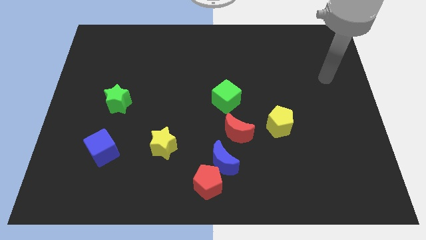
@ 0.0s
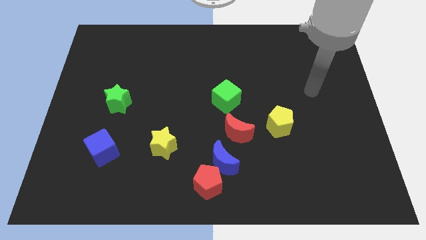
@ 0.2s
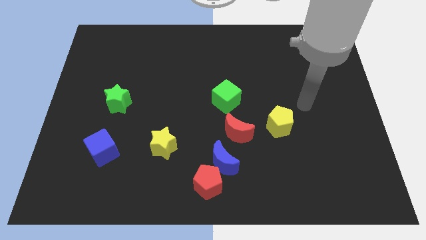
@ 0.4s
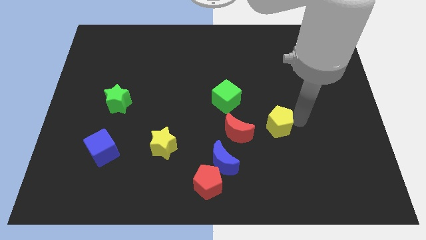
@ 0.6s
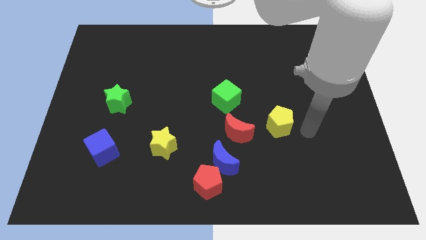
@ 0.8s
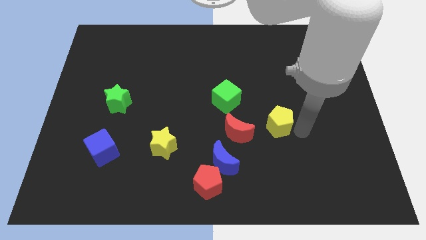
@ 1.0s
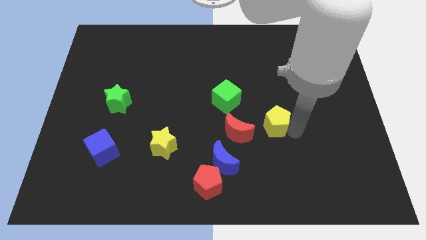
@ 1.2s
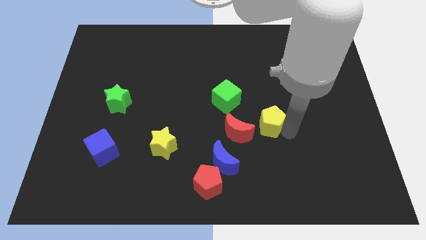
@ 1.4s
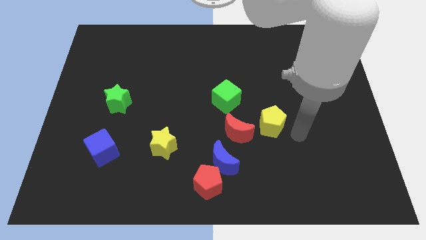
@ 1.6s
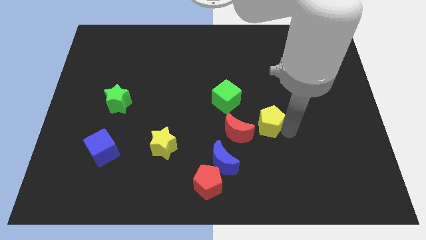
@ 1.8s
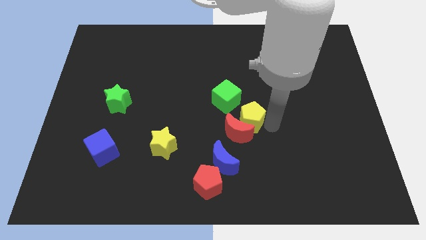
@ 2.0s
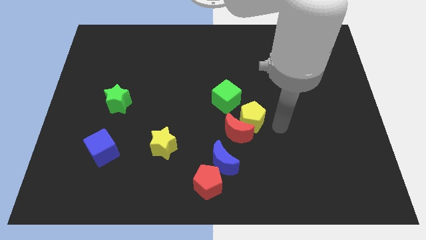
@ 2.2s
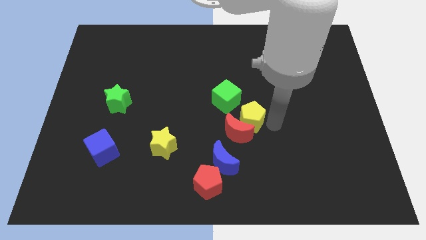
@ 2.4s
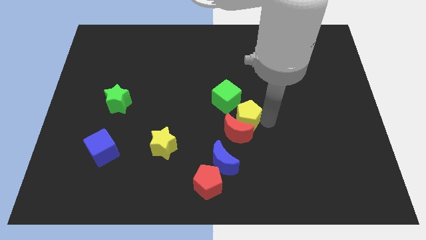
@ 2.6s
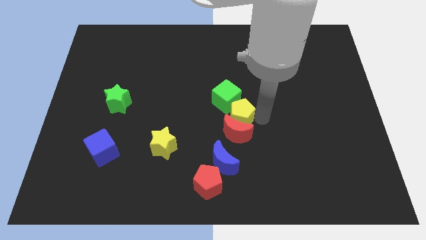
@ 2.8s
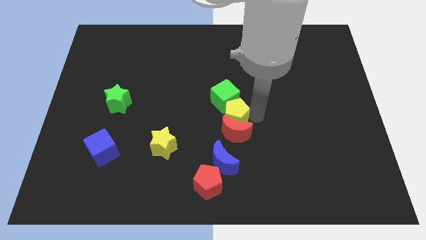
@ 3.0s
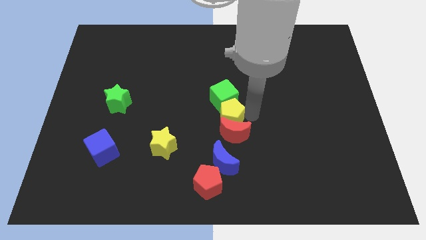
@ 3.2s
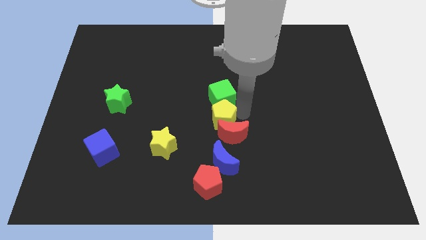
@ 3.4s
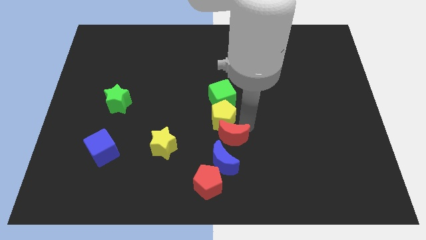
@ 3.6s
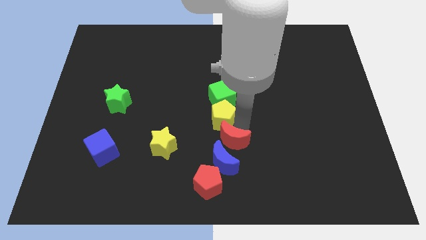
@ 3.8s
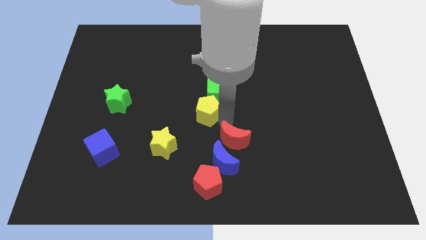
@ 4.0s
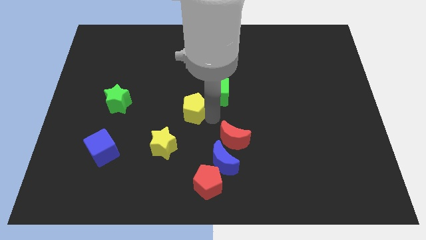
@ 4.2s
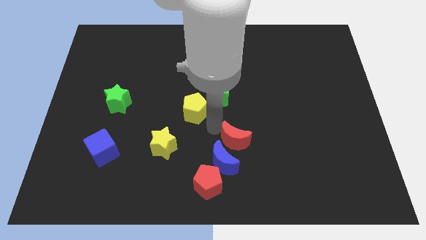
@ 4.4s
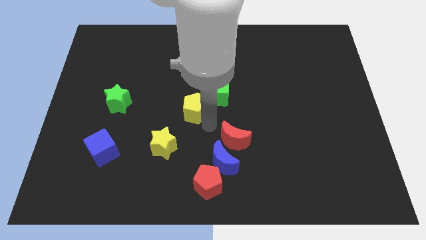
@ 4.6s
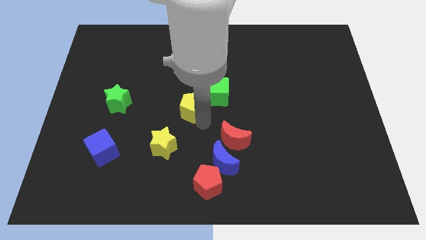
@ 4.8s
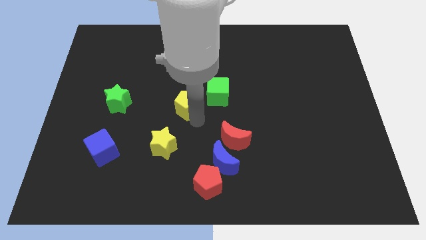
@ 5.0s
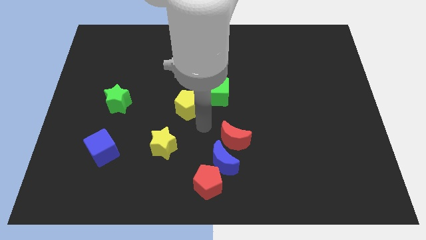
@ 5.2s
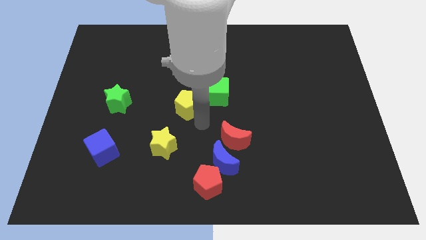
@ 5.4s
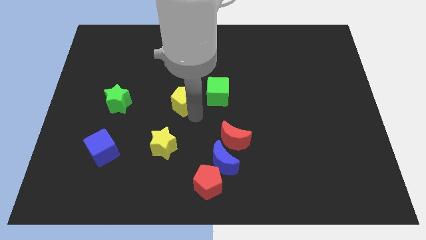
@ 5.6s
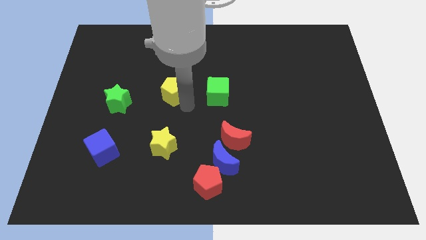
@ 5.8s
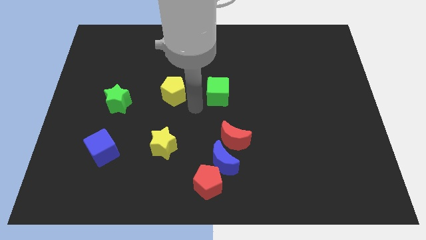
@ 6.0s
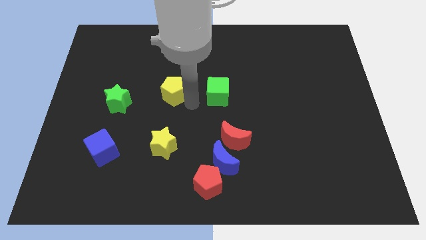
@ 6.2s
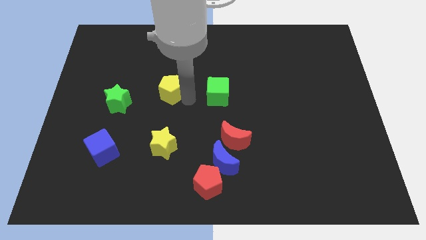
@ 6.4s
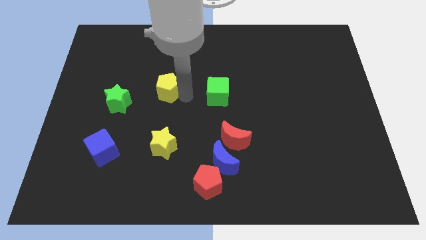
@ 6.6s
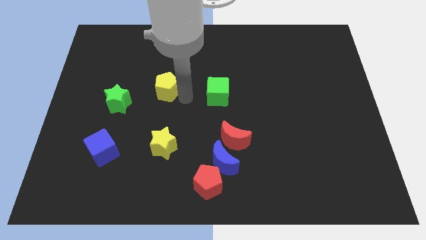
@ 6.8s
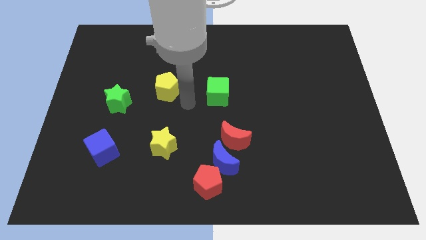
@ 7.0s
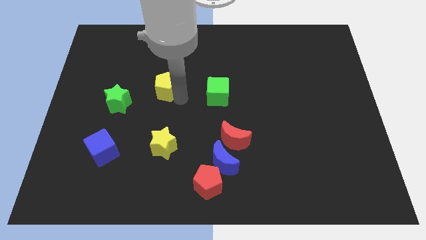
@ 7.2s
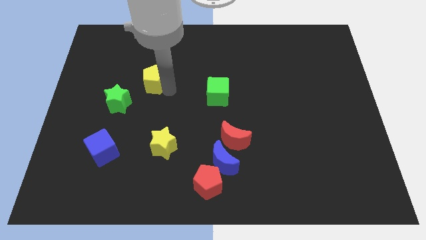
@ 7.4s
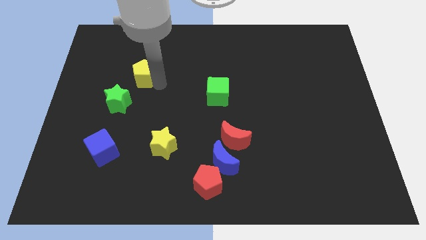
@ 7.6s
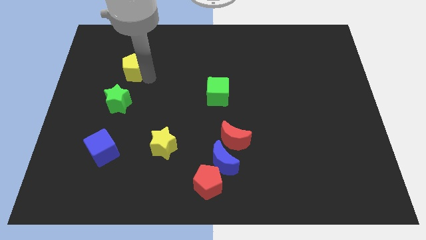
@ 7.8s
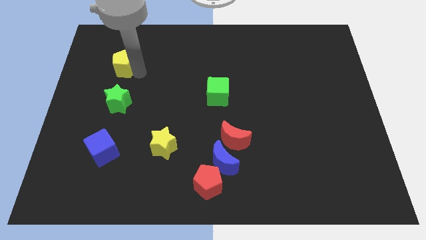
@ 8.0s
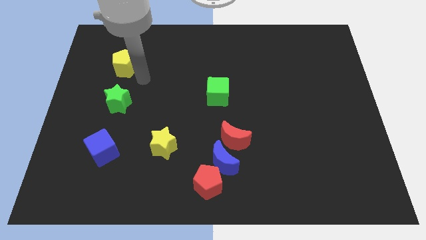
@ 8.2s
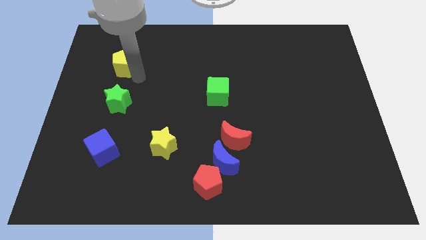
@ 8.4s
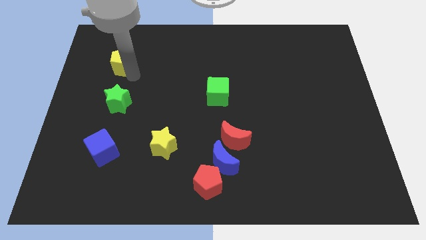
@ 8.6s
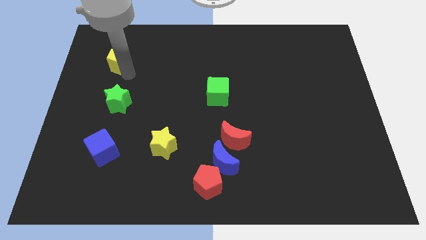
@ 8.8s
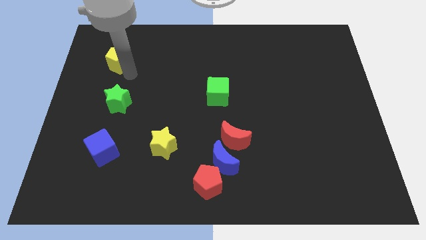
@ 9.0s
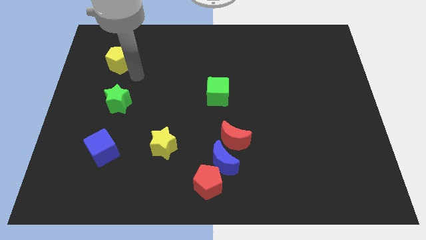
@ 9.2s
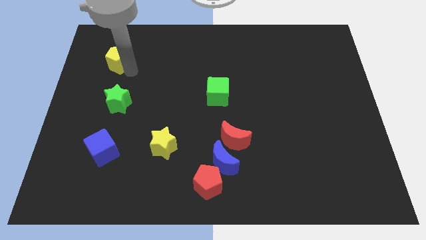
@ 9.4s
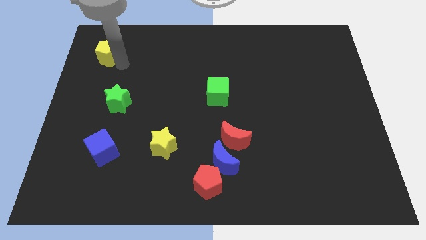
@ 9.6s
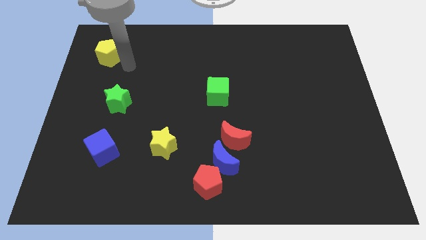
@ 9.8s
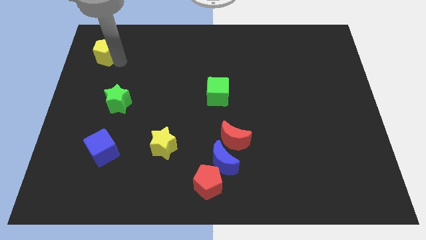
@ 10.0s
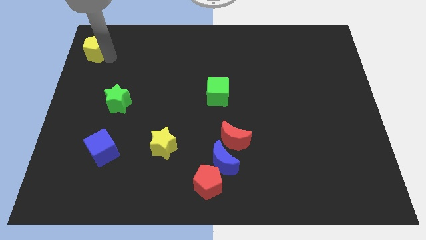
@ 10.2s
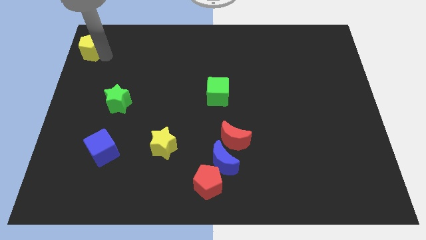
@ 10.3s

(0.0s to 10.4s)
slide the yellow pentagon to the top left

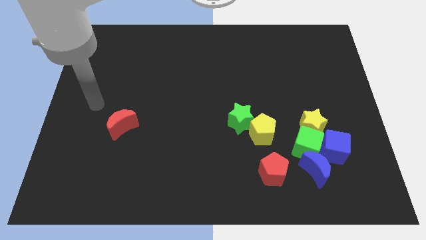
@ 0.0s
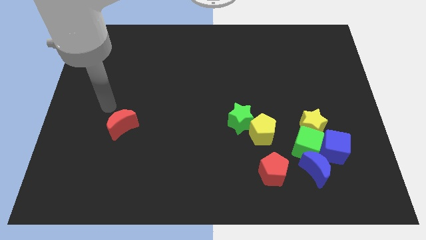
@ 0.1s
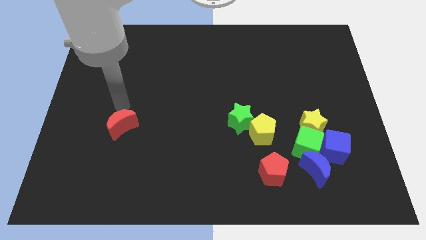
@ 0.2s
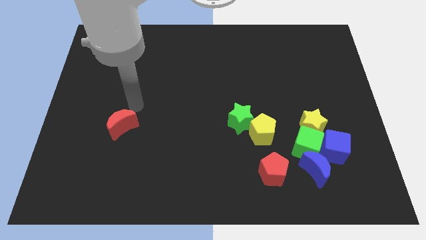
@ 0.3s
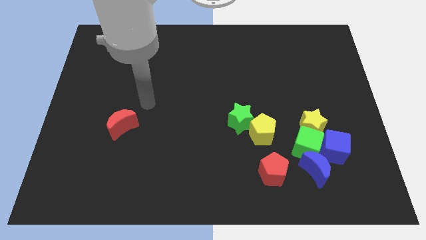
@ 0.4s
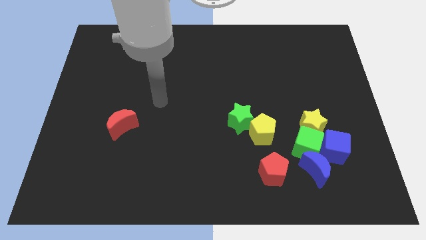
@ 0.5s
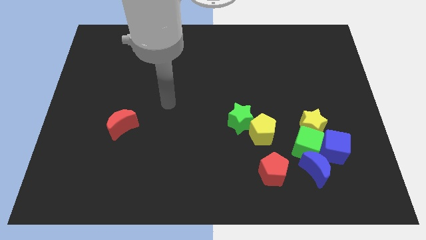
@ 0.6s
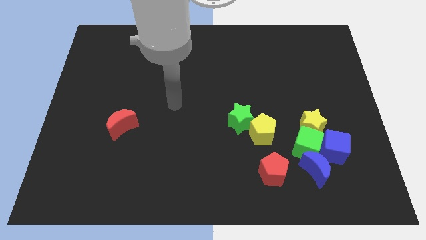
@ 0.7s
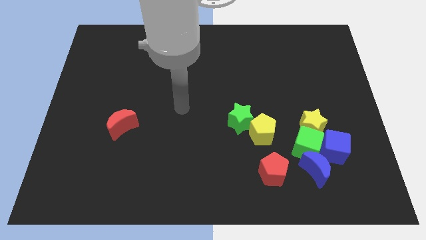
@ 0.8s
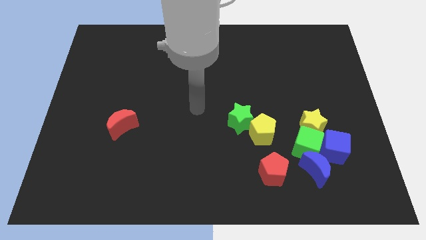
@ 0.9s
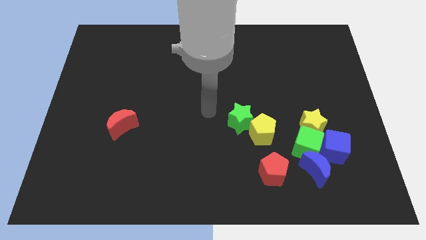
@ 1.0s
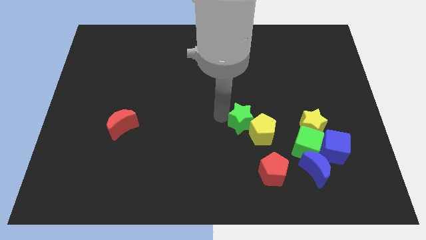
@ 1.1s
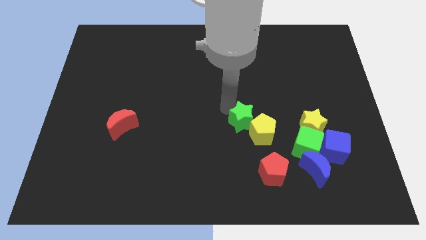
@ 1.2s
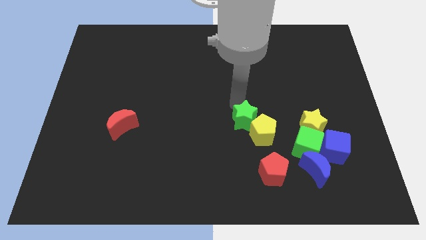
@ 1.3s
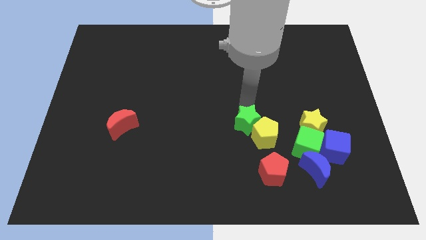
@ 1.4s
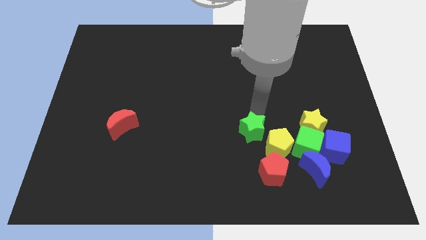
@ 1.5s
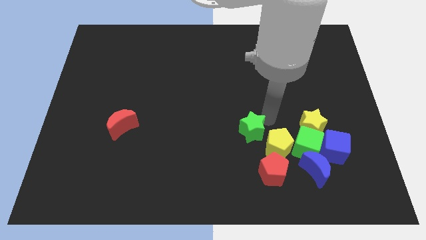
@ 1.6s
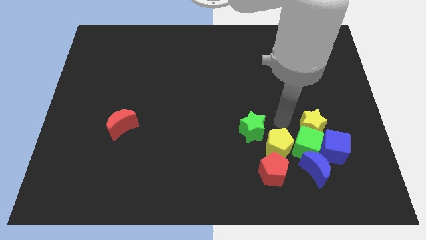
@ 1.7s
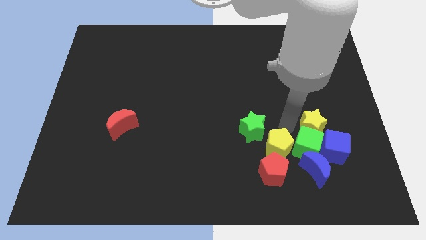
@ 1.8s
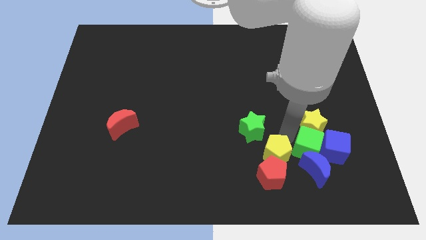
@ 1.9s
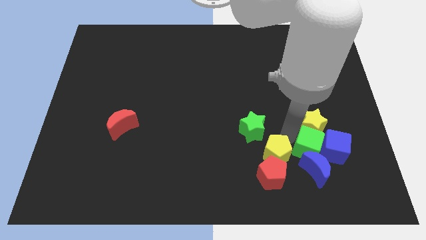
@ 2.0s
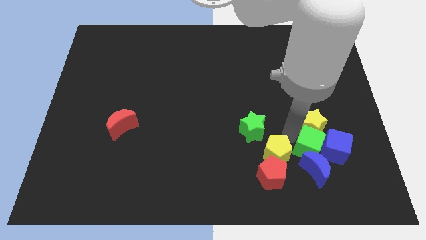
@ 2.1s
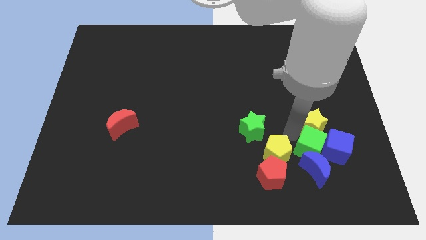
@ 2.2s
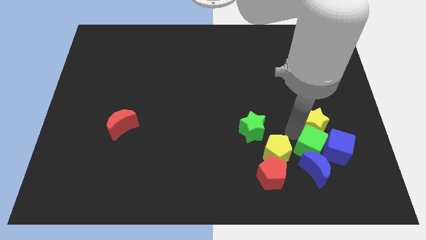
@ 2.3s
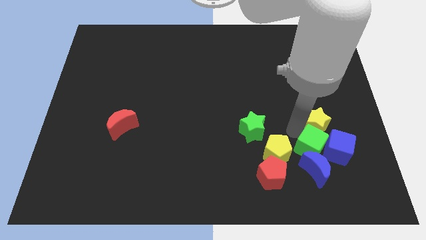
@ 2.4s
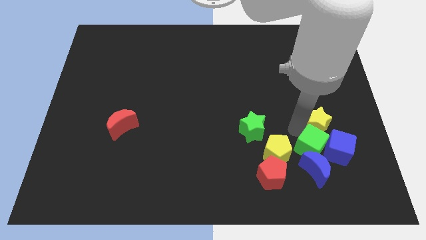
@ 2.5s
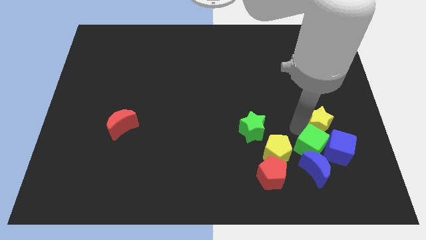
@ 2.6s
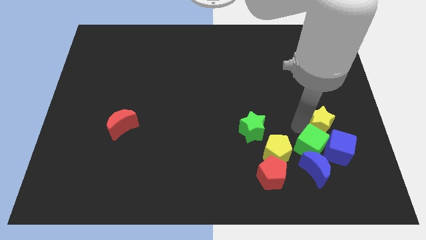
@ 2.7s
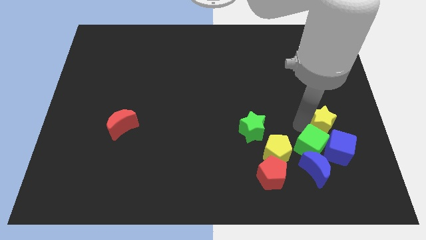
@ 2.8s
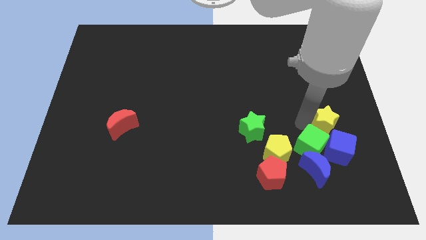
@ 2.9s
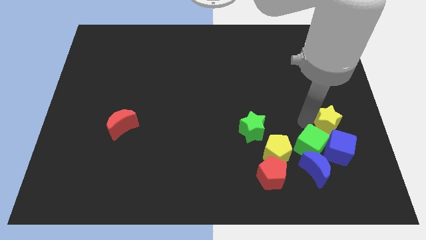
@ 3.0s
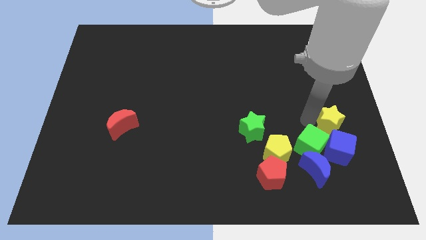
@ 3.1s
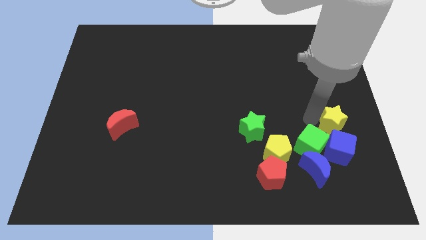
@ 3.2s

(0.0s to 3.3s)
put the yellow star to the right side
